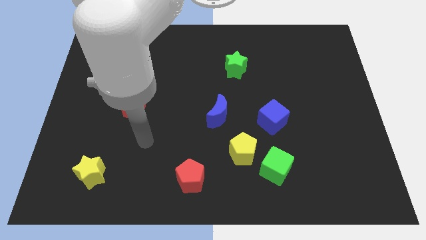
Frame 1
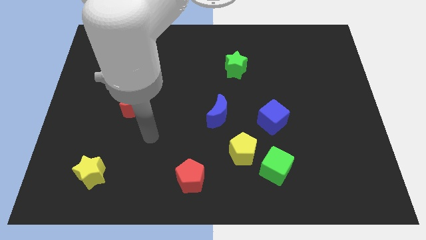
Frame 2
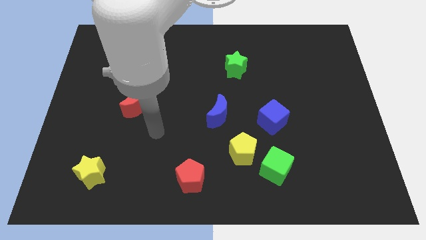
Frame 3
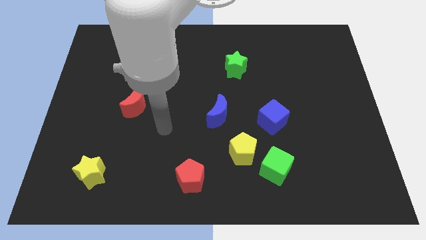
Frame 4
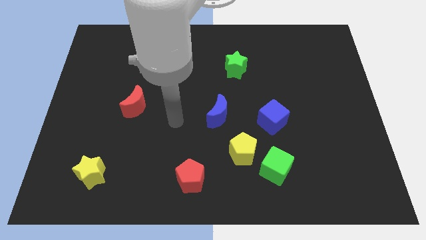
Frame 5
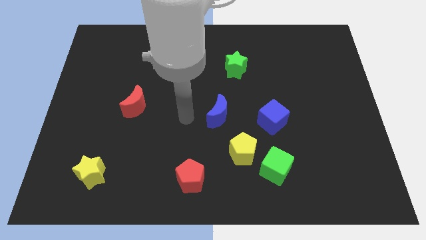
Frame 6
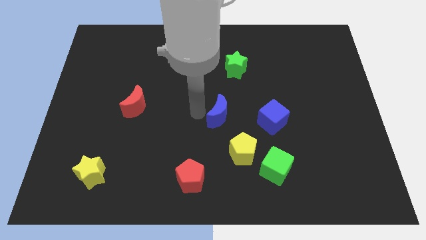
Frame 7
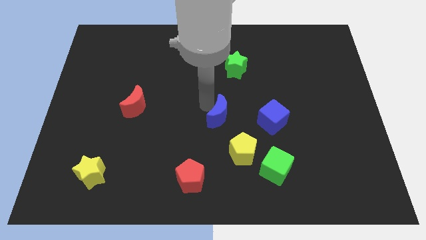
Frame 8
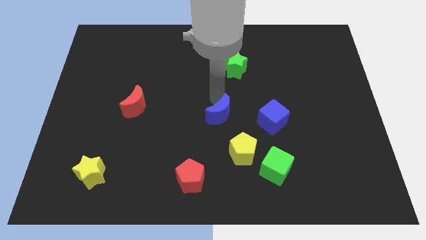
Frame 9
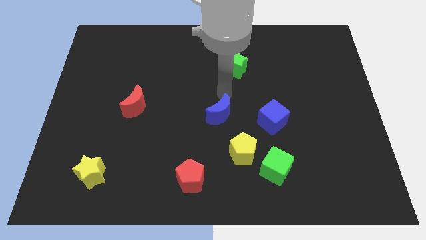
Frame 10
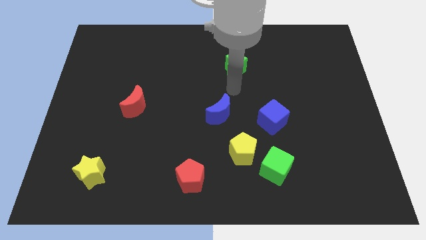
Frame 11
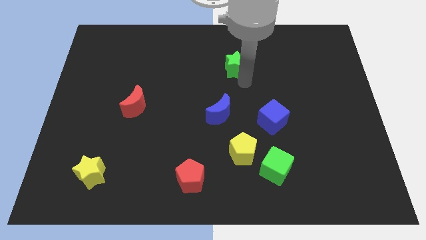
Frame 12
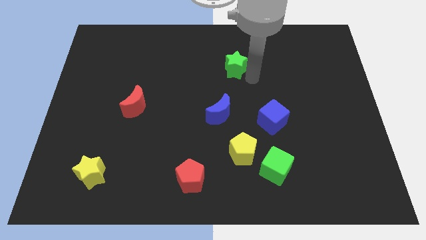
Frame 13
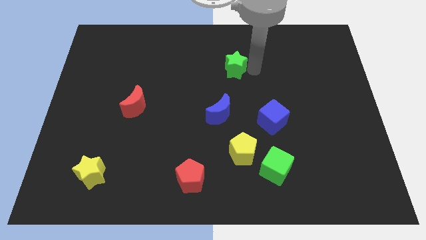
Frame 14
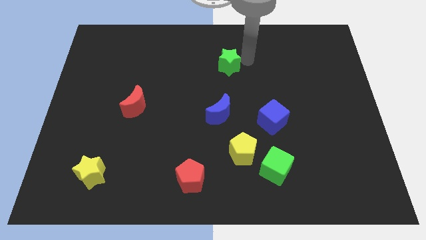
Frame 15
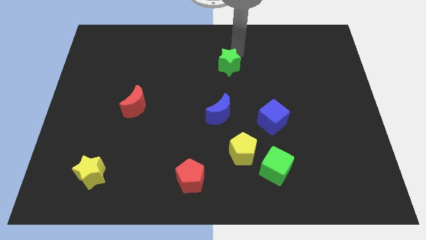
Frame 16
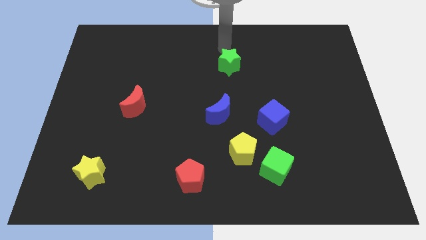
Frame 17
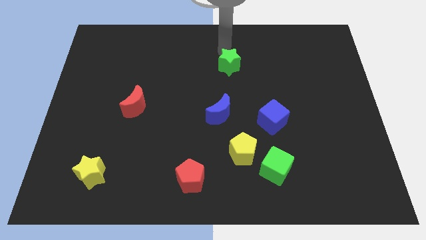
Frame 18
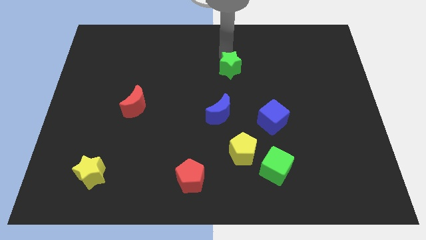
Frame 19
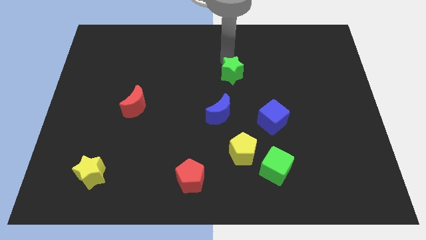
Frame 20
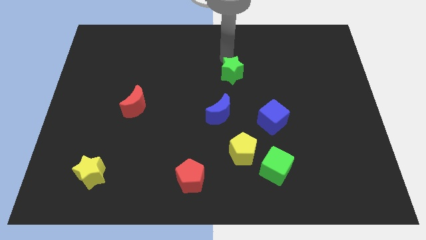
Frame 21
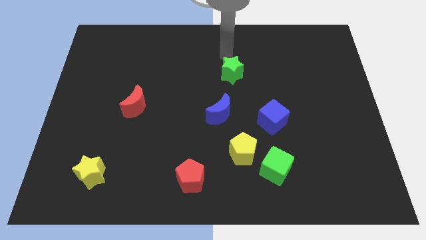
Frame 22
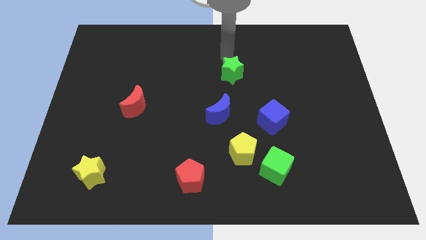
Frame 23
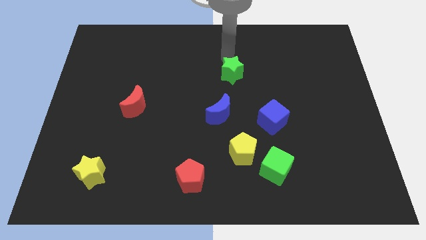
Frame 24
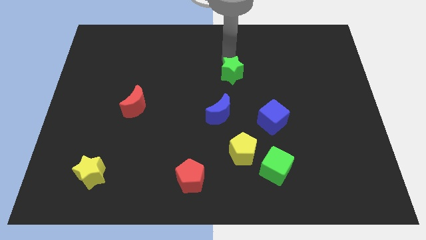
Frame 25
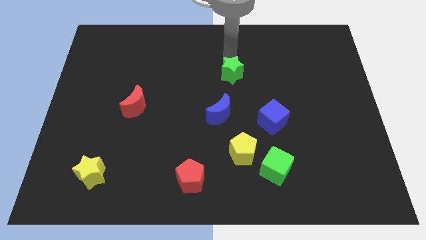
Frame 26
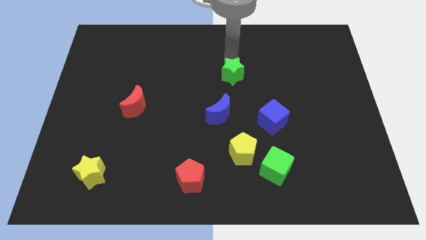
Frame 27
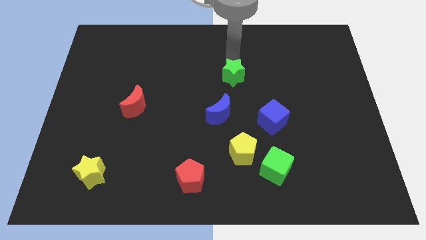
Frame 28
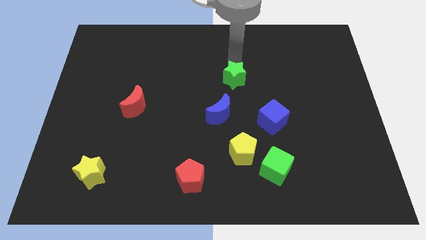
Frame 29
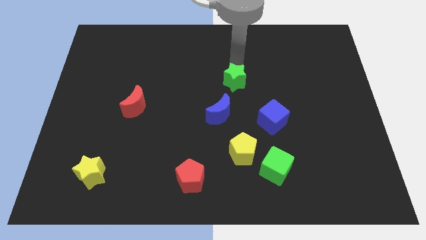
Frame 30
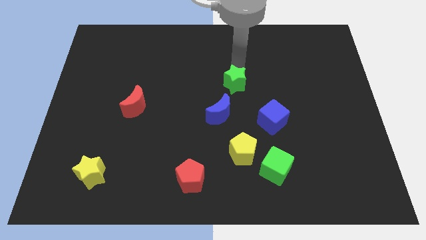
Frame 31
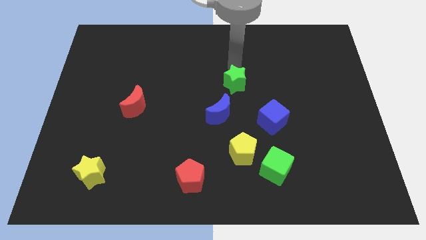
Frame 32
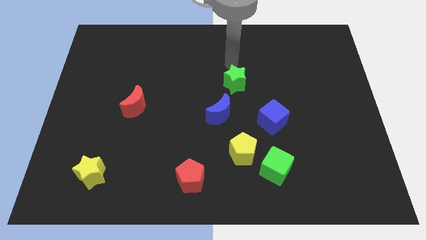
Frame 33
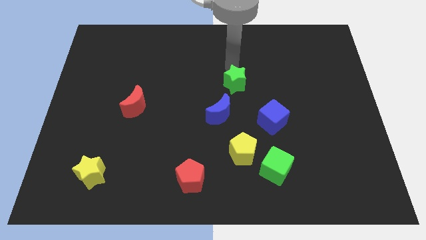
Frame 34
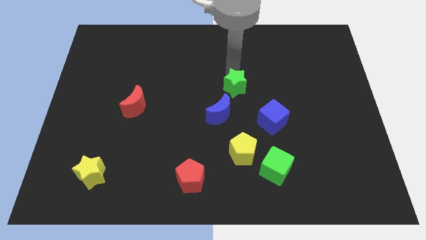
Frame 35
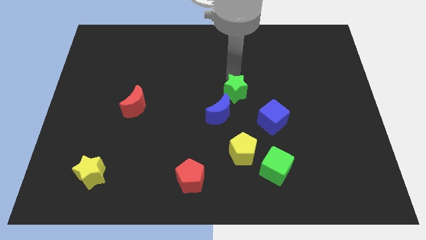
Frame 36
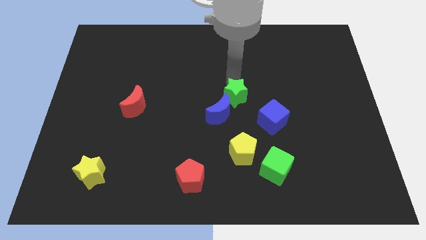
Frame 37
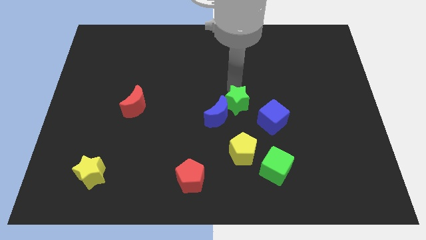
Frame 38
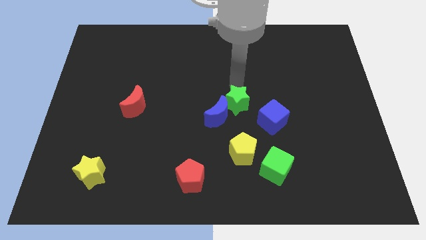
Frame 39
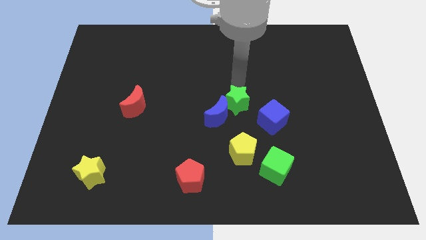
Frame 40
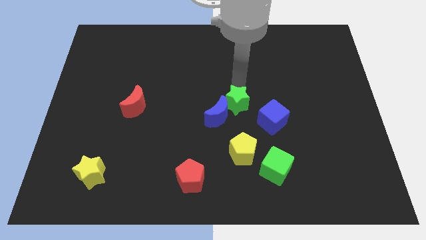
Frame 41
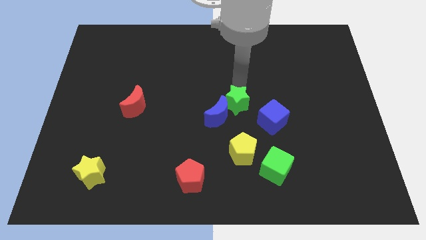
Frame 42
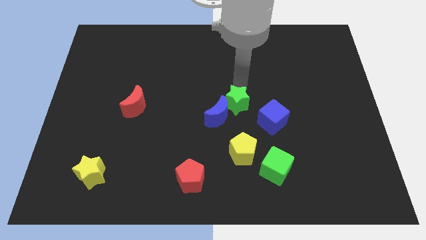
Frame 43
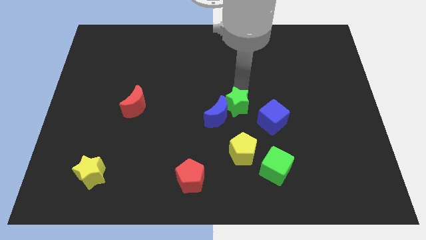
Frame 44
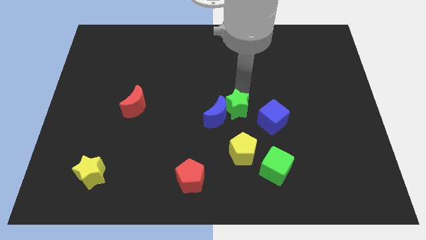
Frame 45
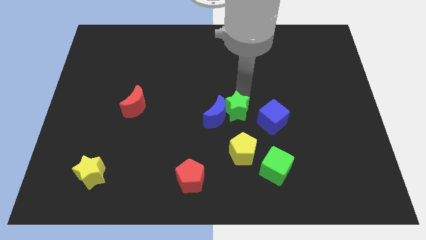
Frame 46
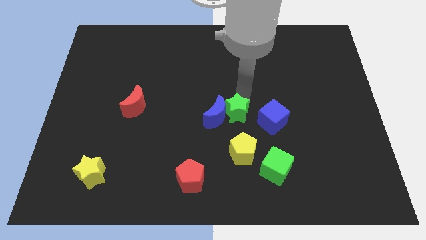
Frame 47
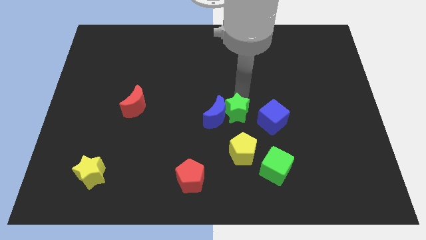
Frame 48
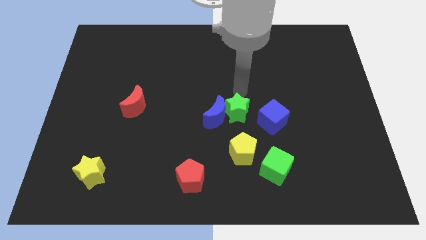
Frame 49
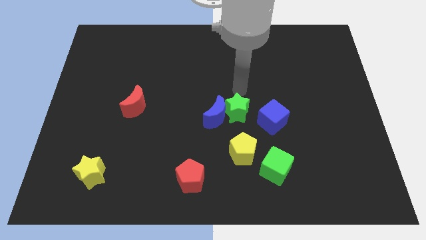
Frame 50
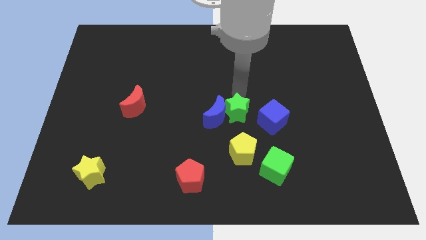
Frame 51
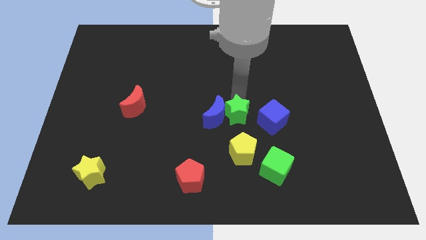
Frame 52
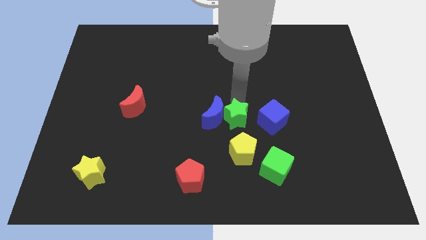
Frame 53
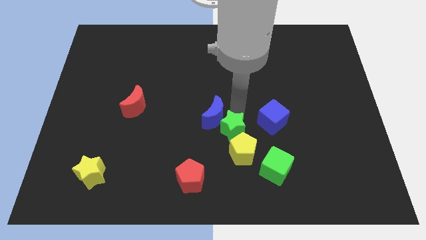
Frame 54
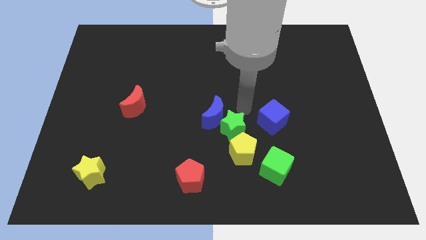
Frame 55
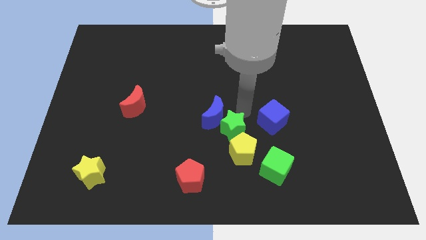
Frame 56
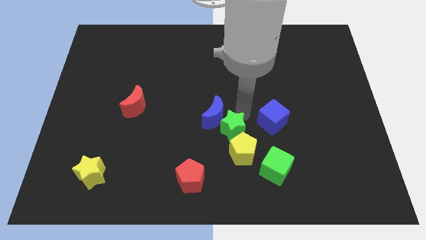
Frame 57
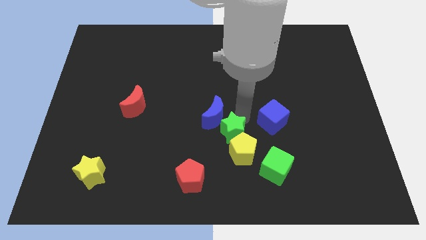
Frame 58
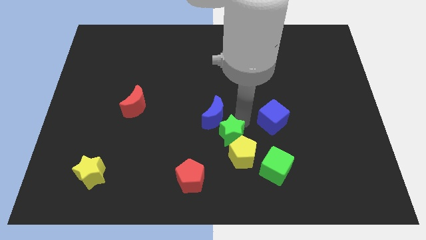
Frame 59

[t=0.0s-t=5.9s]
move the green star downwards

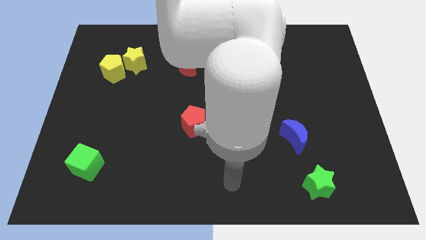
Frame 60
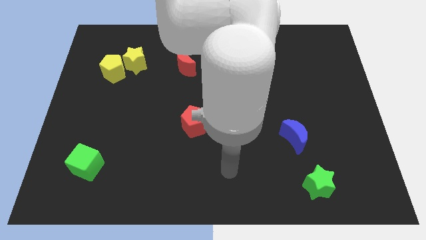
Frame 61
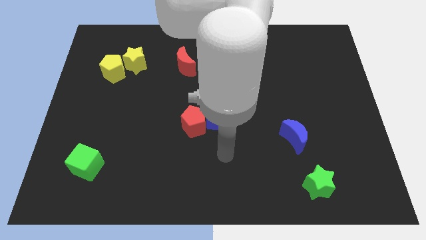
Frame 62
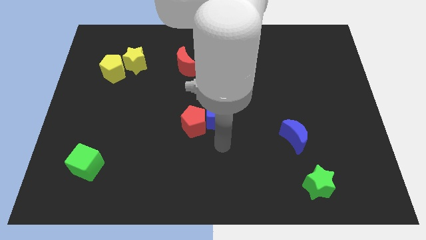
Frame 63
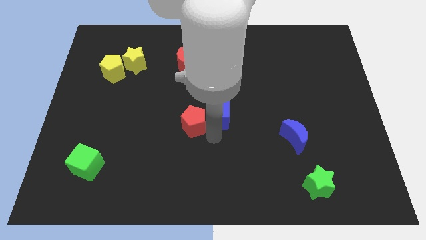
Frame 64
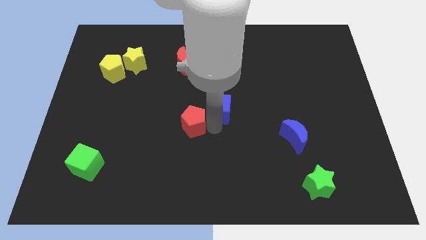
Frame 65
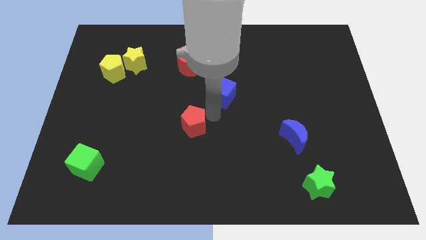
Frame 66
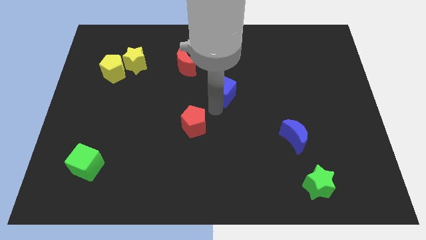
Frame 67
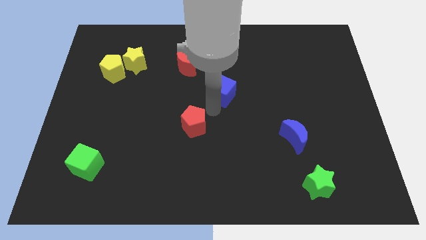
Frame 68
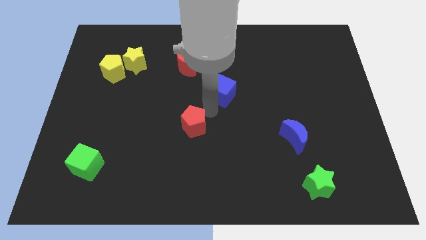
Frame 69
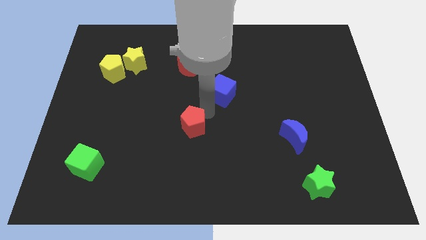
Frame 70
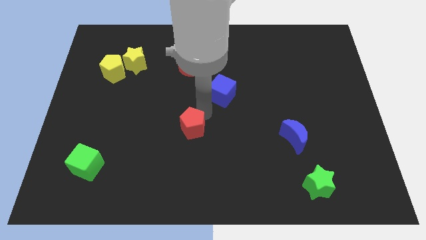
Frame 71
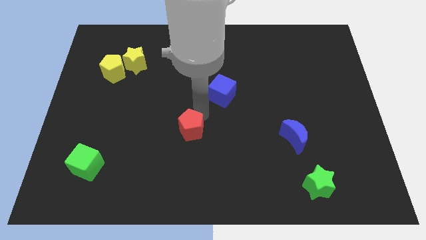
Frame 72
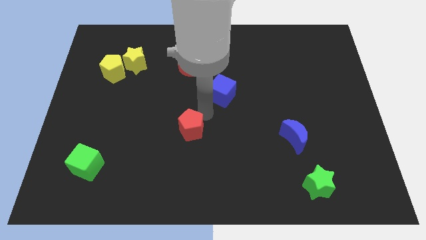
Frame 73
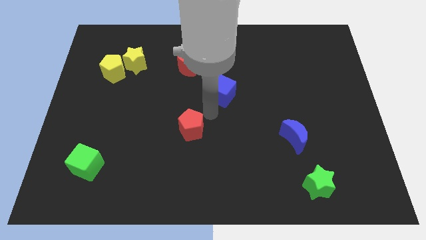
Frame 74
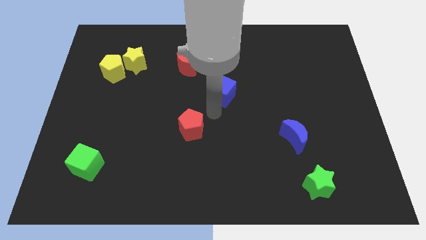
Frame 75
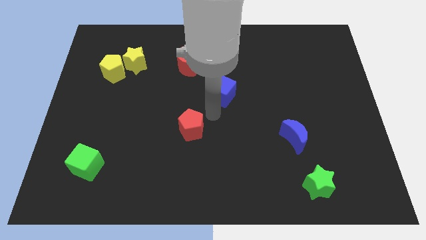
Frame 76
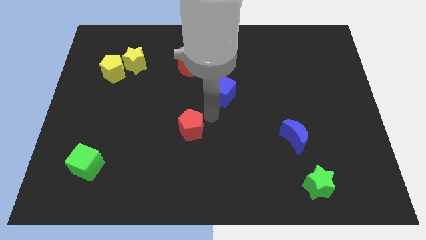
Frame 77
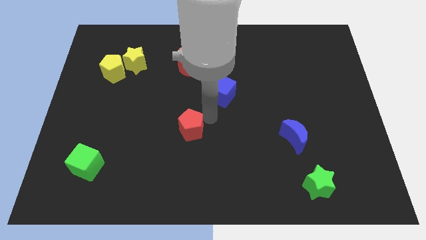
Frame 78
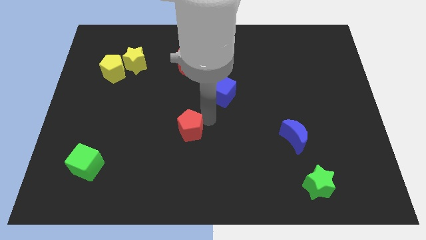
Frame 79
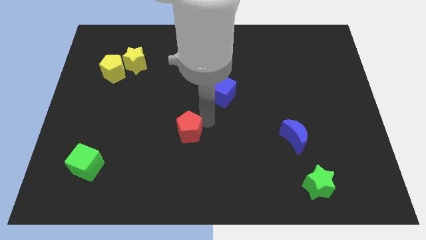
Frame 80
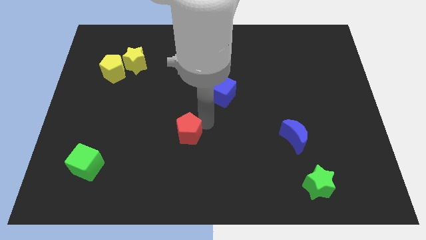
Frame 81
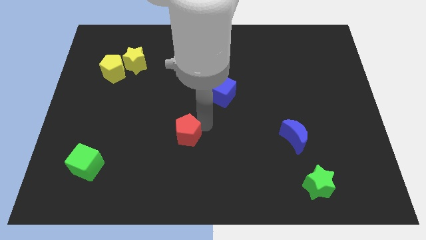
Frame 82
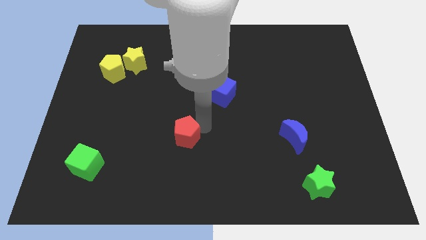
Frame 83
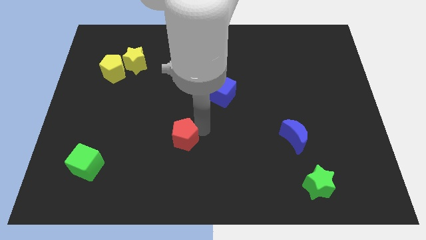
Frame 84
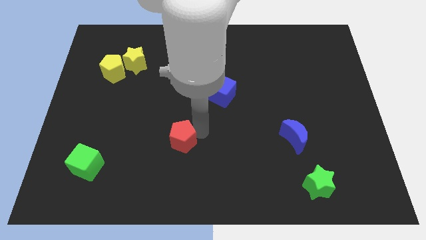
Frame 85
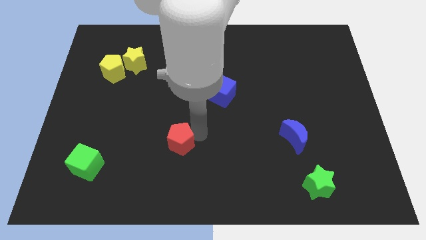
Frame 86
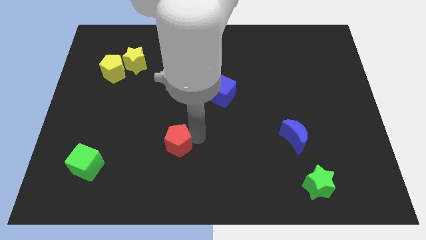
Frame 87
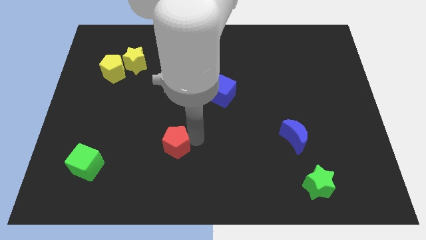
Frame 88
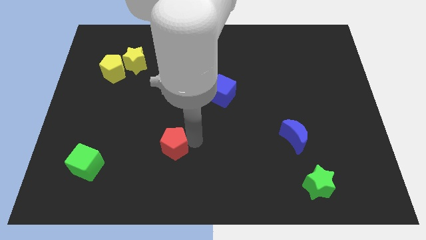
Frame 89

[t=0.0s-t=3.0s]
slide the red pentagon diagonally down and left slightly
